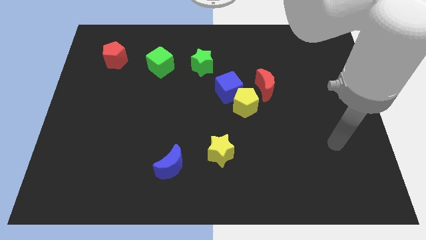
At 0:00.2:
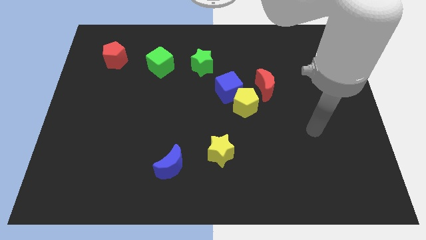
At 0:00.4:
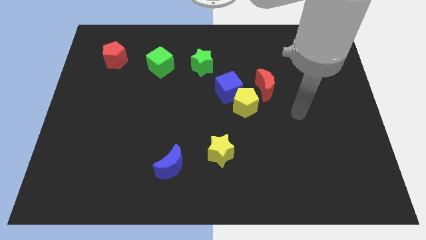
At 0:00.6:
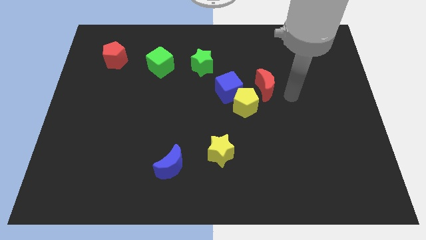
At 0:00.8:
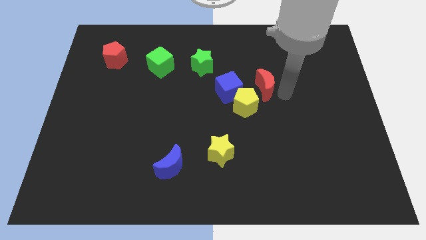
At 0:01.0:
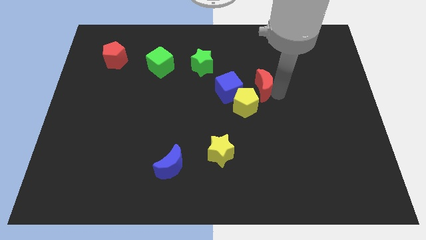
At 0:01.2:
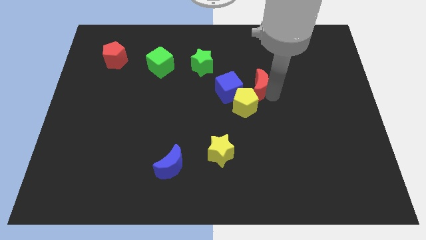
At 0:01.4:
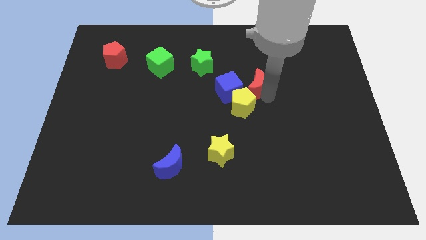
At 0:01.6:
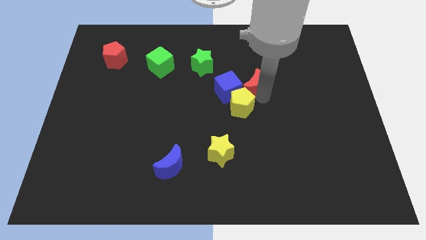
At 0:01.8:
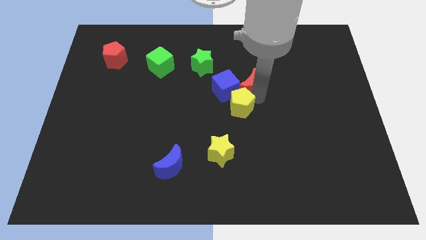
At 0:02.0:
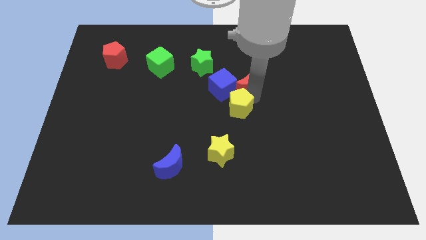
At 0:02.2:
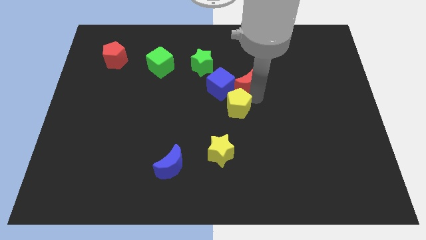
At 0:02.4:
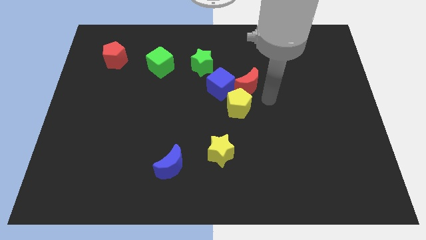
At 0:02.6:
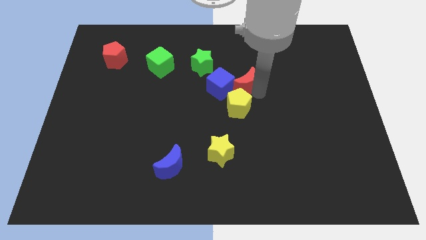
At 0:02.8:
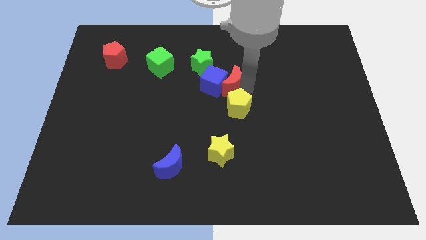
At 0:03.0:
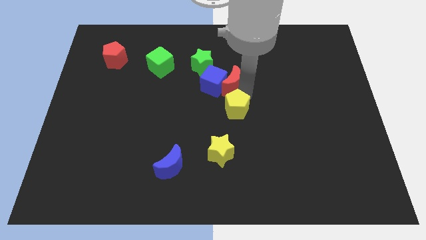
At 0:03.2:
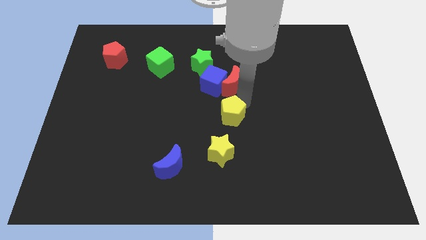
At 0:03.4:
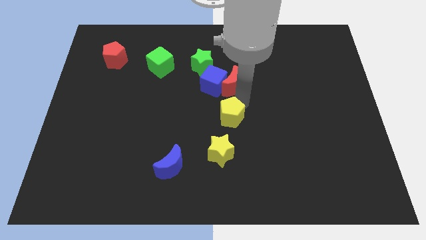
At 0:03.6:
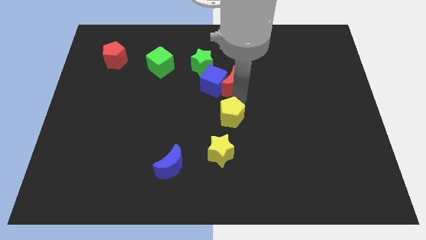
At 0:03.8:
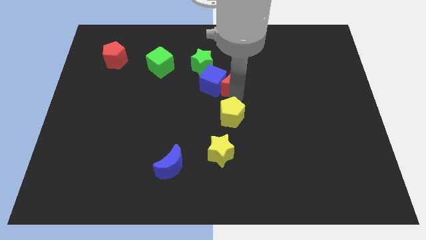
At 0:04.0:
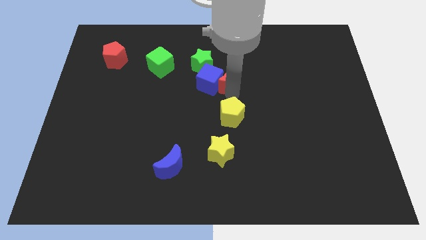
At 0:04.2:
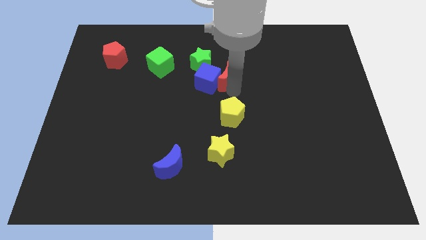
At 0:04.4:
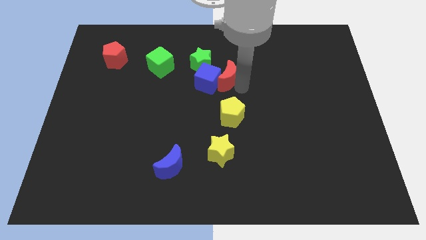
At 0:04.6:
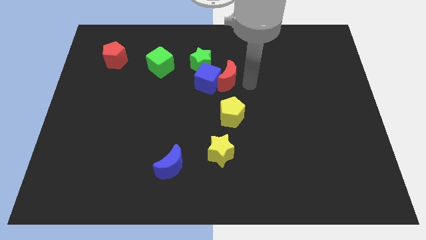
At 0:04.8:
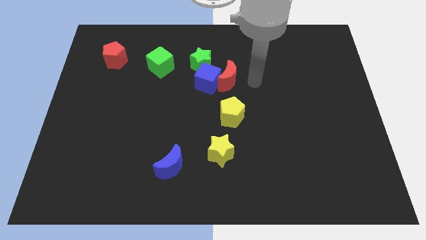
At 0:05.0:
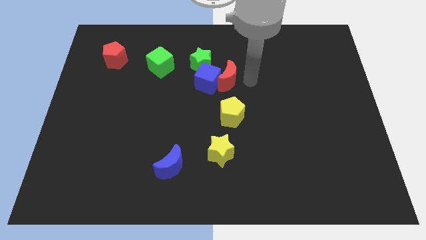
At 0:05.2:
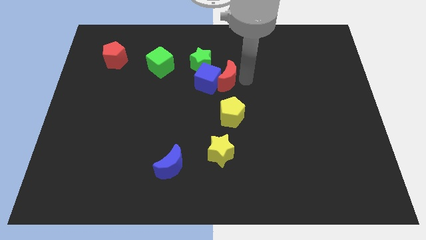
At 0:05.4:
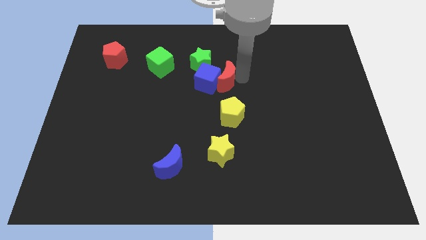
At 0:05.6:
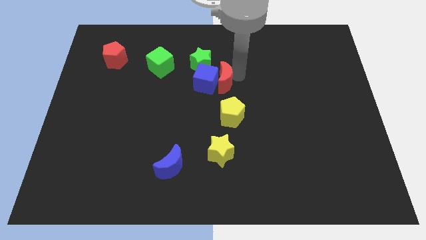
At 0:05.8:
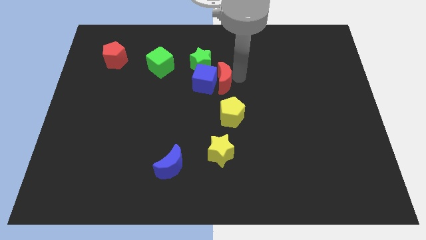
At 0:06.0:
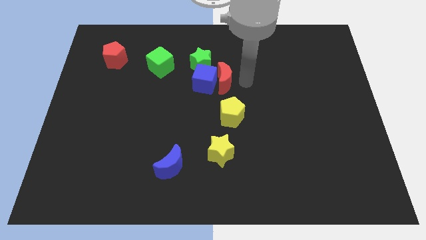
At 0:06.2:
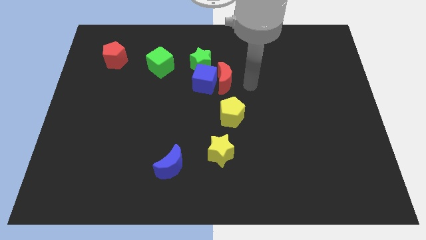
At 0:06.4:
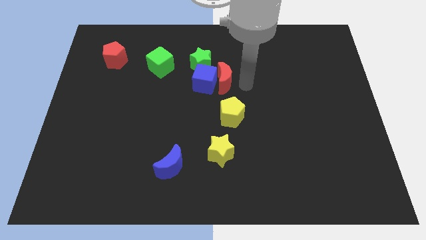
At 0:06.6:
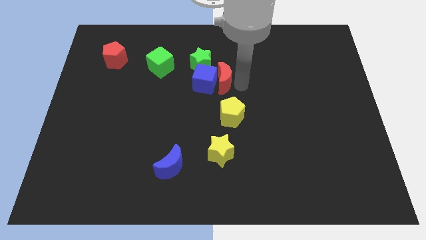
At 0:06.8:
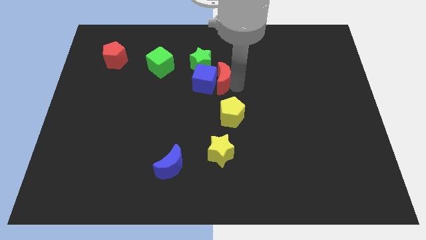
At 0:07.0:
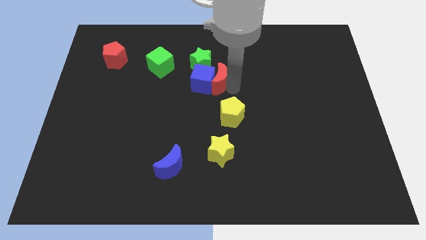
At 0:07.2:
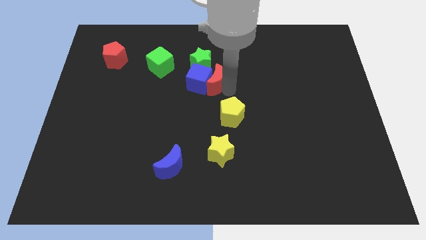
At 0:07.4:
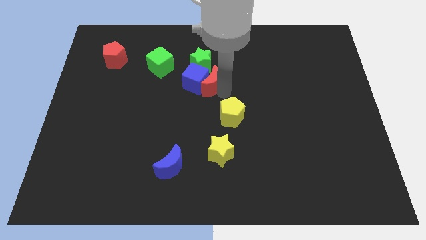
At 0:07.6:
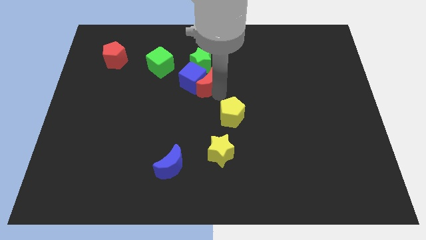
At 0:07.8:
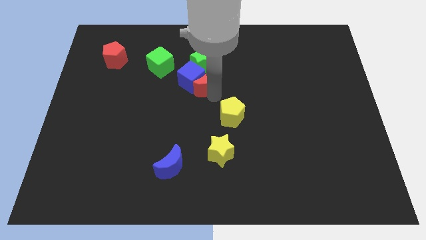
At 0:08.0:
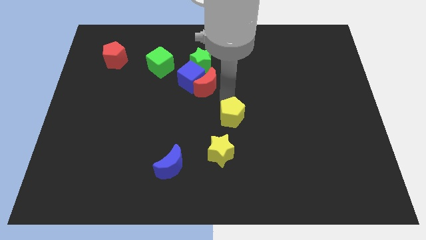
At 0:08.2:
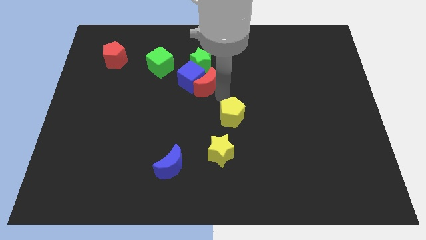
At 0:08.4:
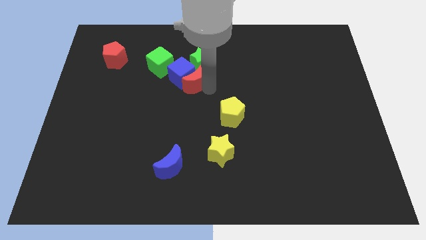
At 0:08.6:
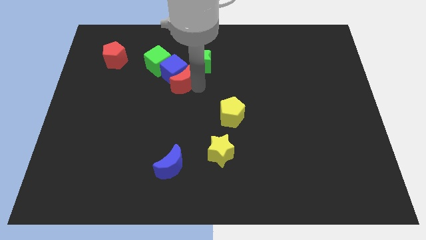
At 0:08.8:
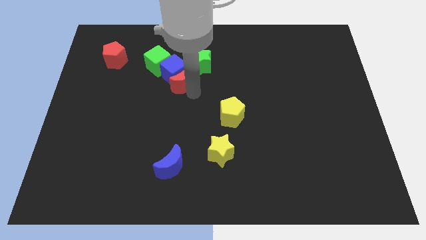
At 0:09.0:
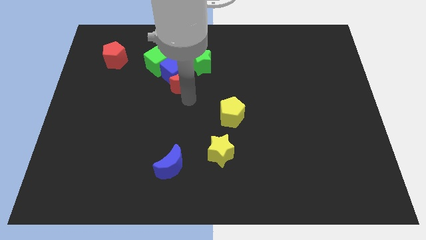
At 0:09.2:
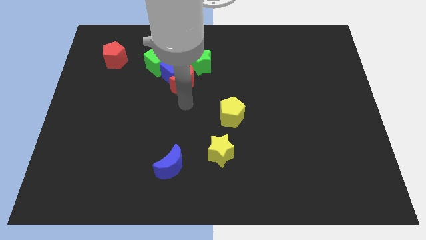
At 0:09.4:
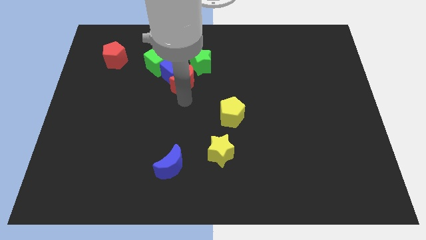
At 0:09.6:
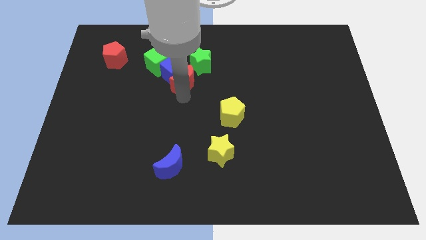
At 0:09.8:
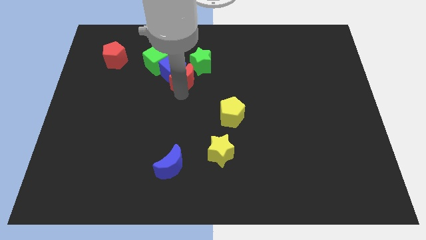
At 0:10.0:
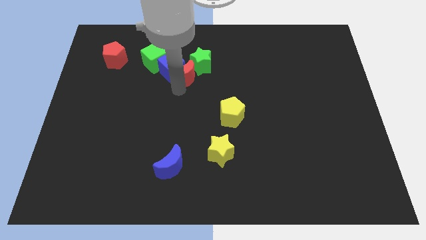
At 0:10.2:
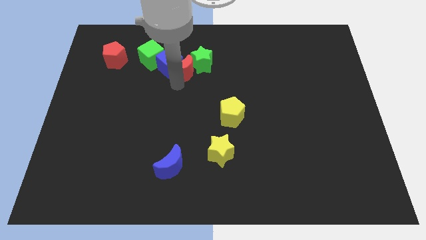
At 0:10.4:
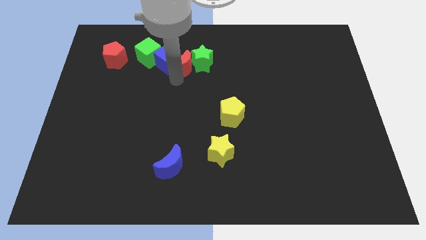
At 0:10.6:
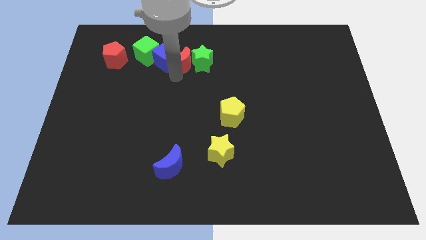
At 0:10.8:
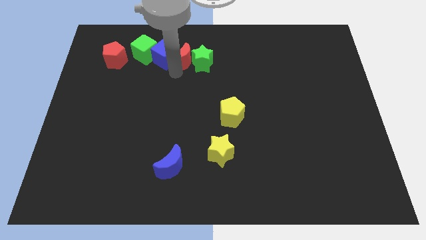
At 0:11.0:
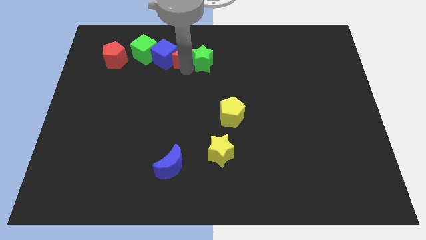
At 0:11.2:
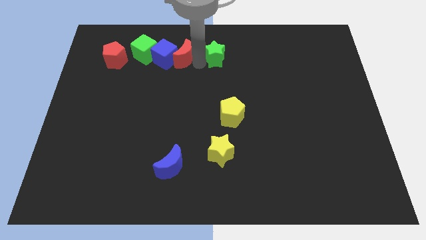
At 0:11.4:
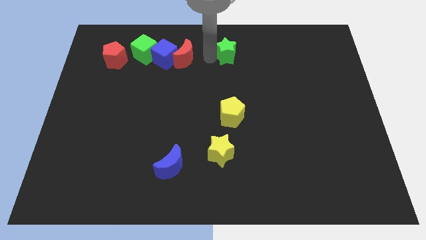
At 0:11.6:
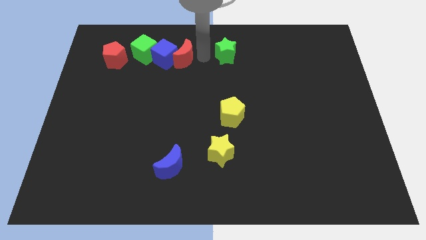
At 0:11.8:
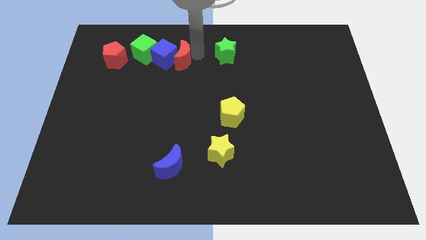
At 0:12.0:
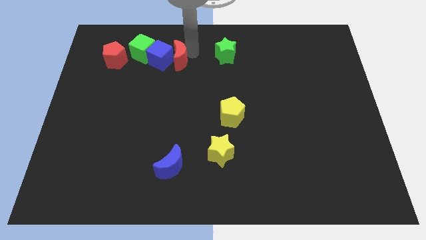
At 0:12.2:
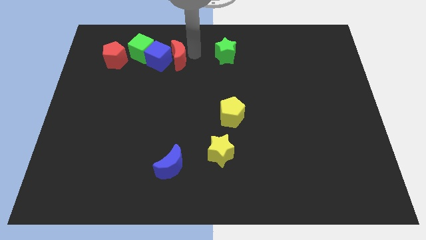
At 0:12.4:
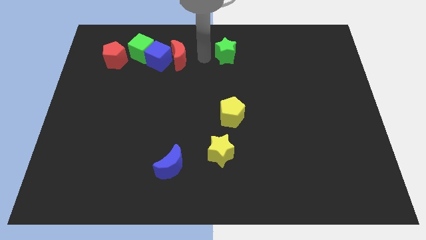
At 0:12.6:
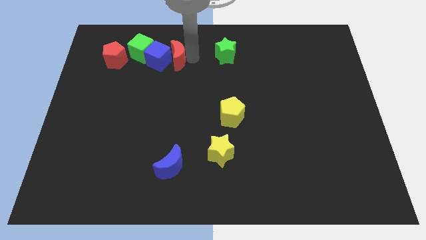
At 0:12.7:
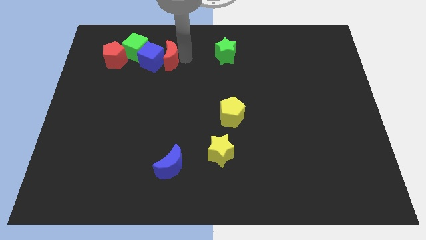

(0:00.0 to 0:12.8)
push the red moon right of the red pentagon
